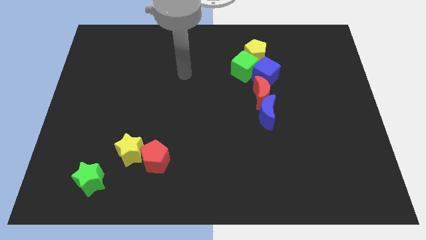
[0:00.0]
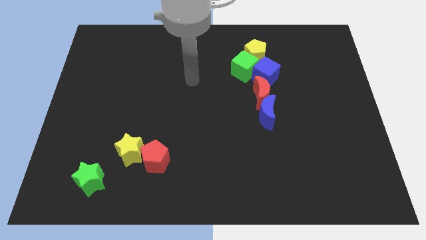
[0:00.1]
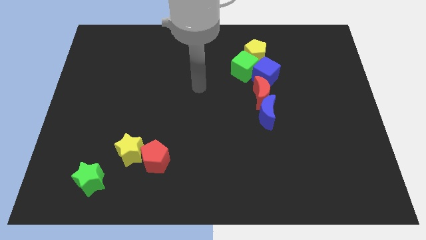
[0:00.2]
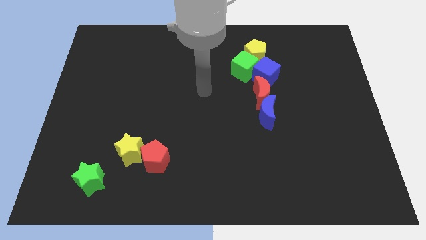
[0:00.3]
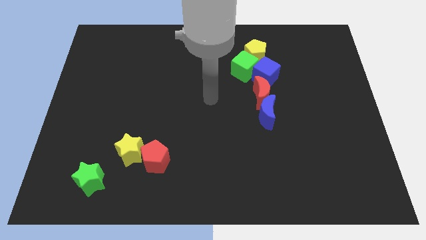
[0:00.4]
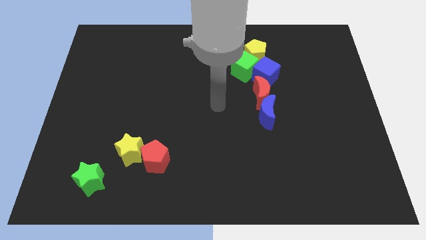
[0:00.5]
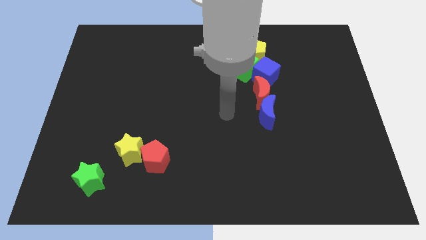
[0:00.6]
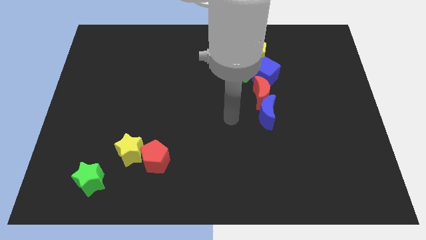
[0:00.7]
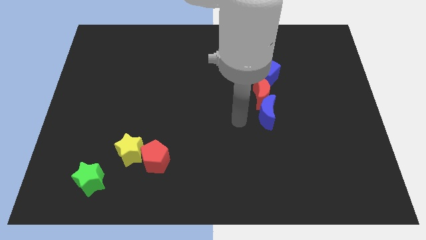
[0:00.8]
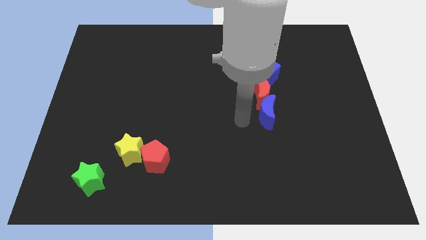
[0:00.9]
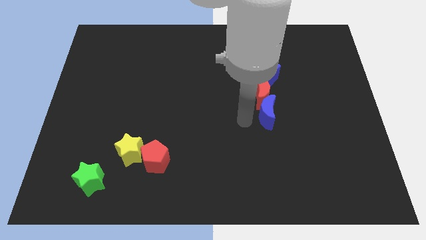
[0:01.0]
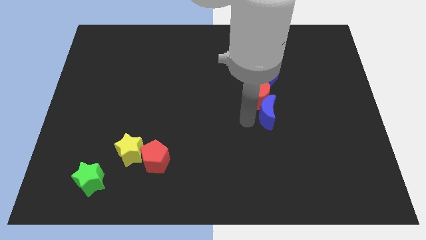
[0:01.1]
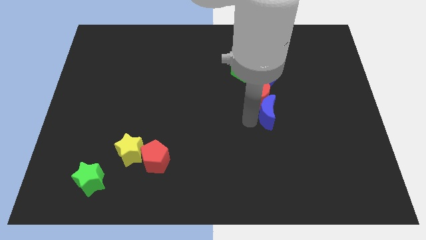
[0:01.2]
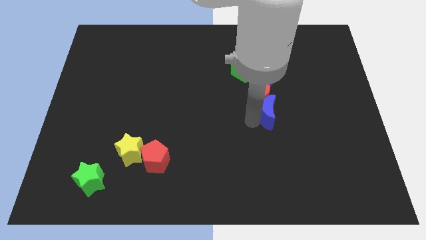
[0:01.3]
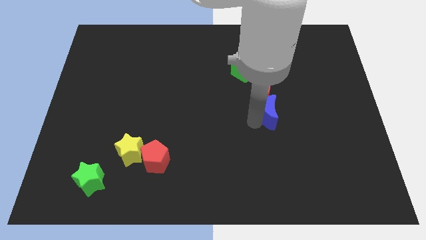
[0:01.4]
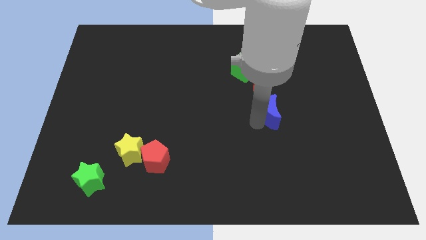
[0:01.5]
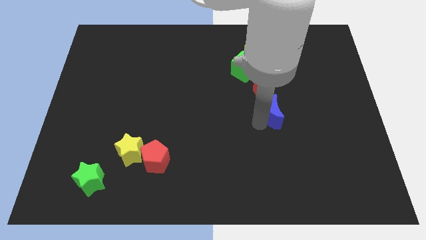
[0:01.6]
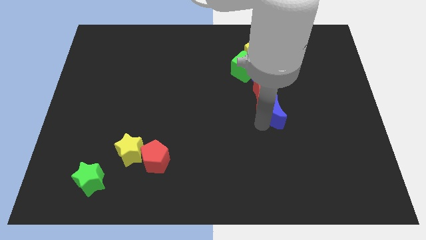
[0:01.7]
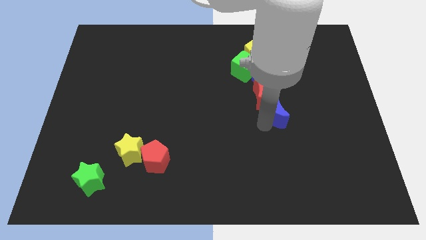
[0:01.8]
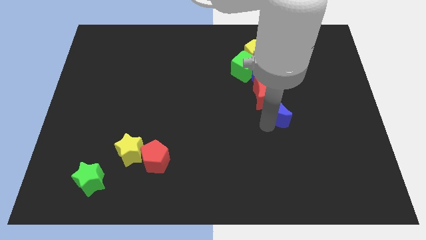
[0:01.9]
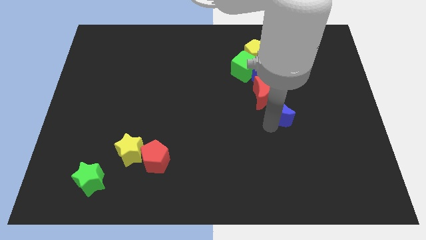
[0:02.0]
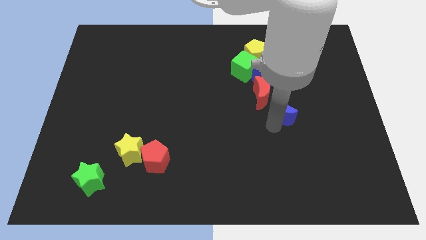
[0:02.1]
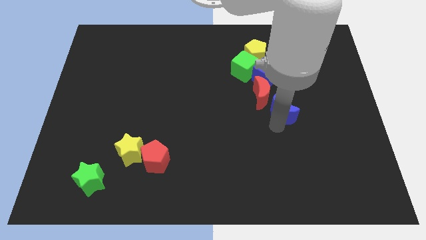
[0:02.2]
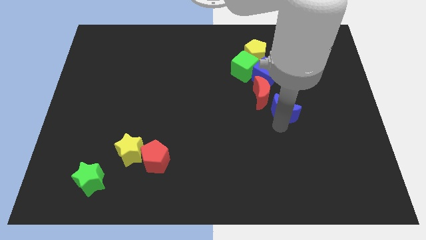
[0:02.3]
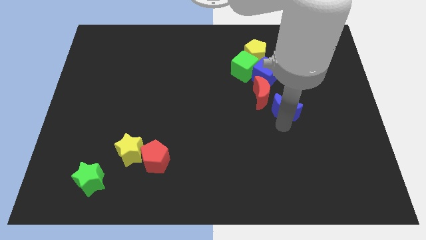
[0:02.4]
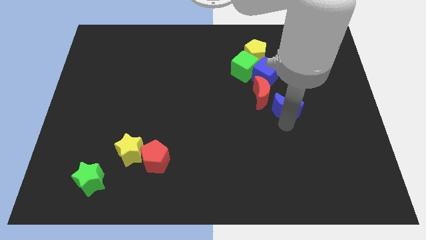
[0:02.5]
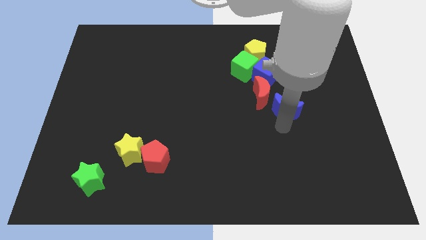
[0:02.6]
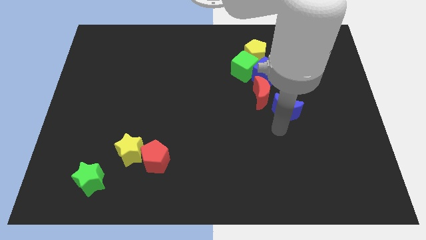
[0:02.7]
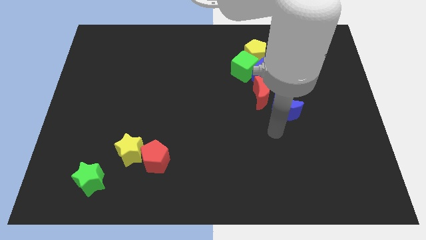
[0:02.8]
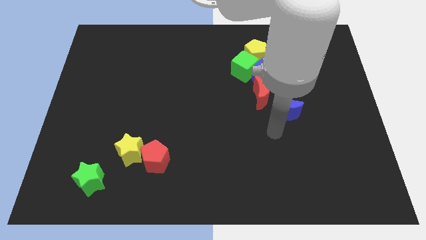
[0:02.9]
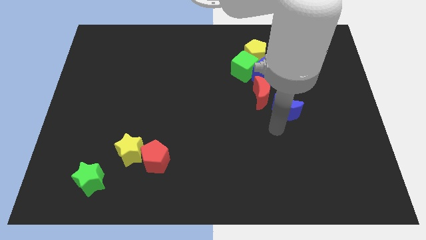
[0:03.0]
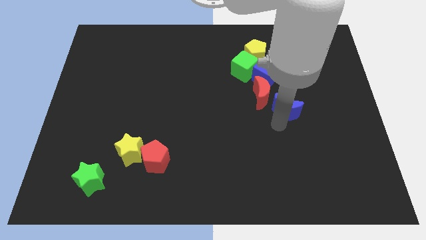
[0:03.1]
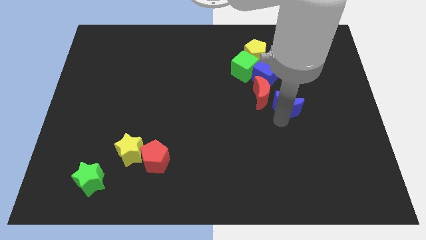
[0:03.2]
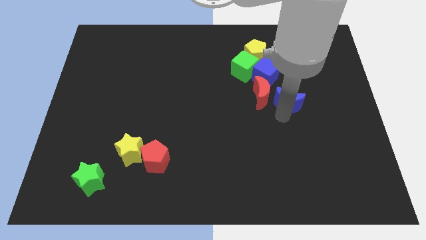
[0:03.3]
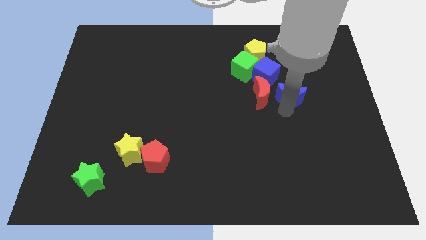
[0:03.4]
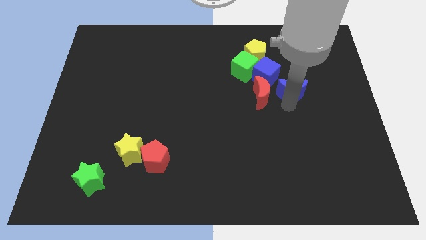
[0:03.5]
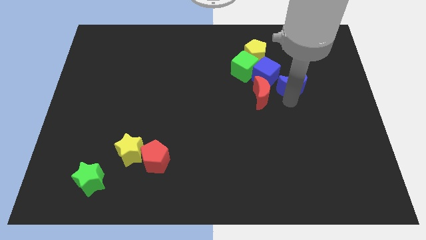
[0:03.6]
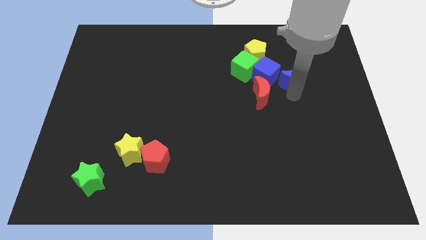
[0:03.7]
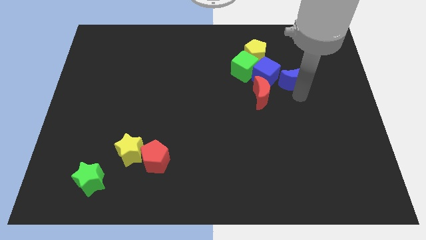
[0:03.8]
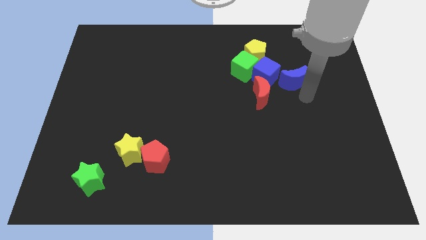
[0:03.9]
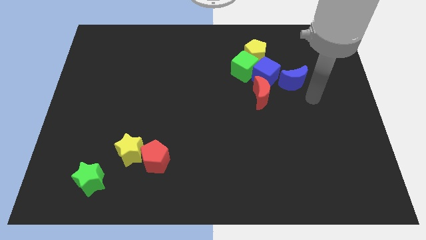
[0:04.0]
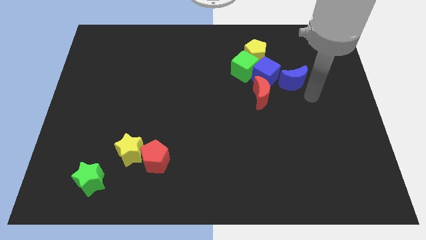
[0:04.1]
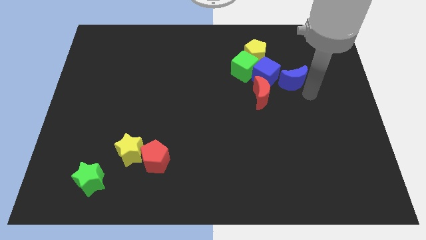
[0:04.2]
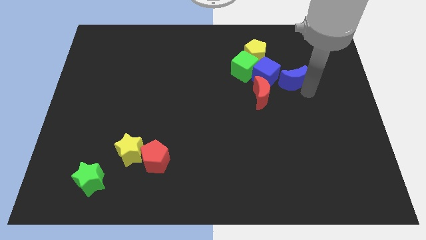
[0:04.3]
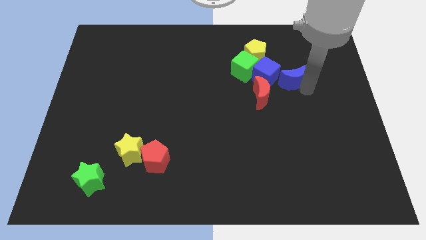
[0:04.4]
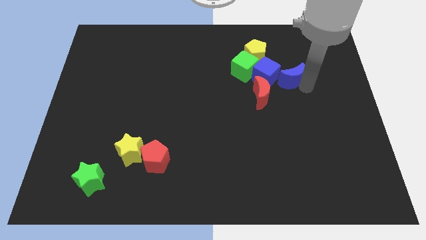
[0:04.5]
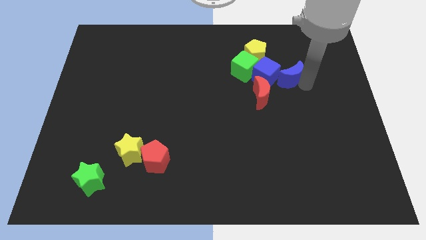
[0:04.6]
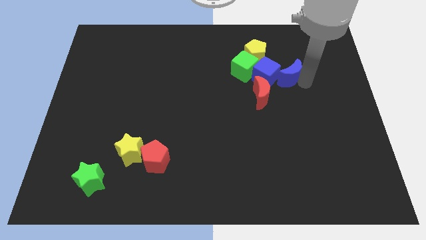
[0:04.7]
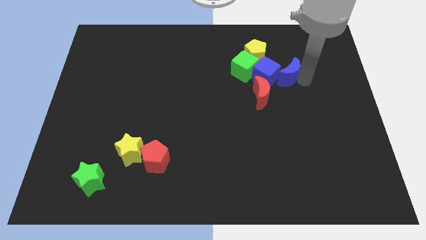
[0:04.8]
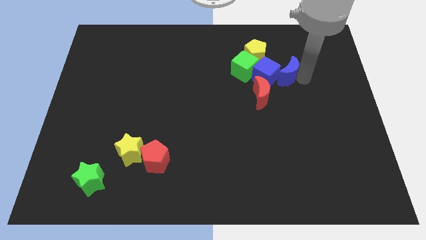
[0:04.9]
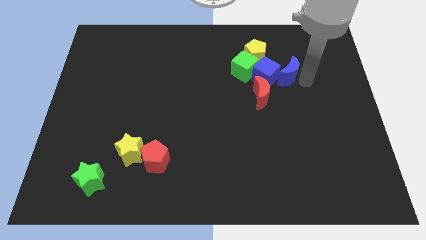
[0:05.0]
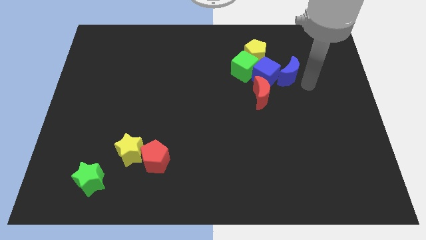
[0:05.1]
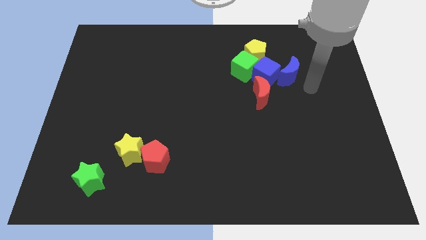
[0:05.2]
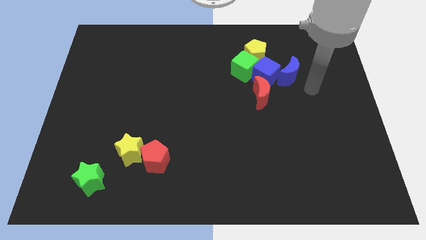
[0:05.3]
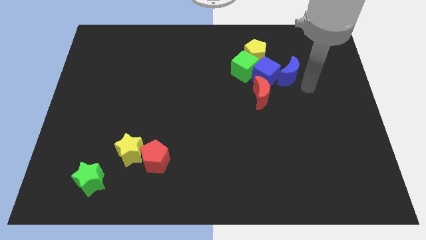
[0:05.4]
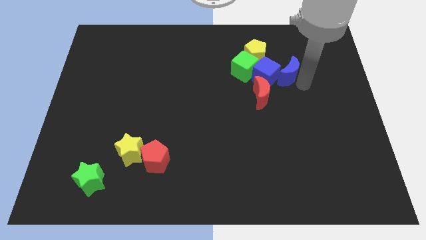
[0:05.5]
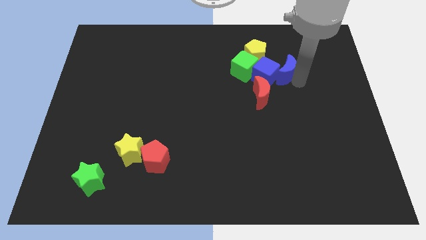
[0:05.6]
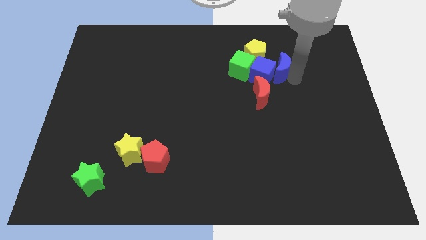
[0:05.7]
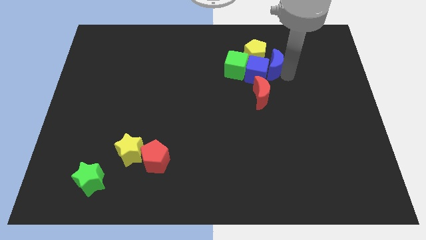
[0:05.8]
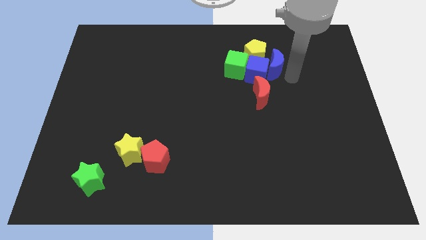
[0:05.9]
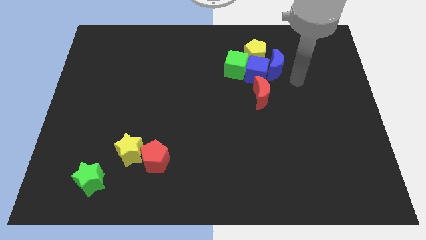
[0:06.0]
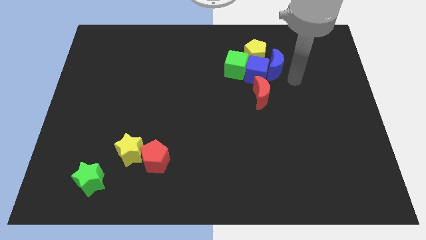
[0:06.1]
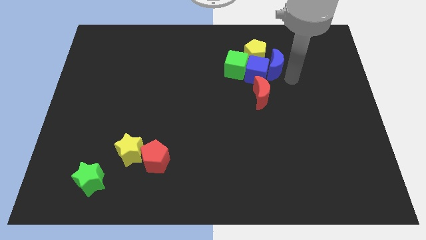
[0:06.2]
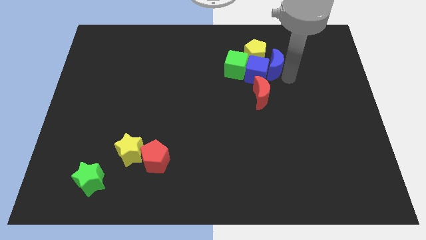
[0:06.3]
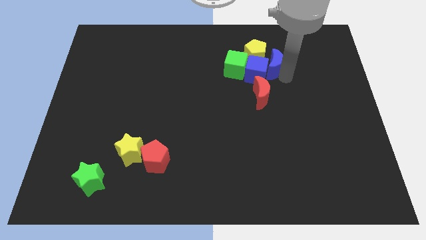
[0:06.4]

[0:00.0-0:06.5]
put the blue moon to the yellow pentagon

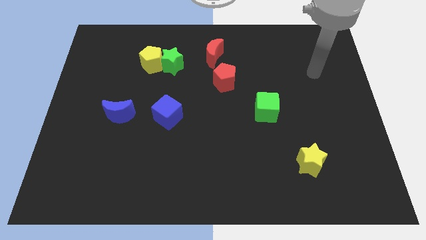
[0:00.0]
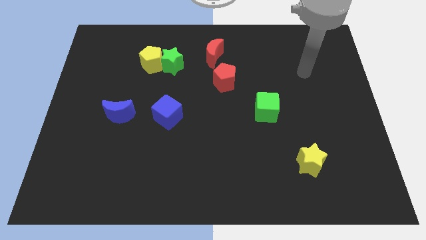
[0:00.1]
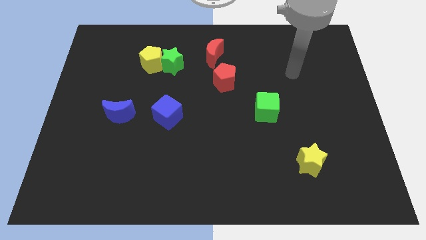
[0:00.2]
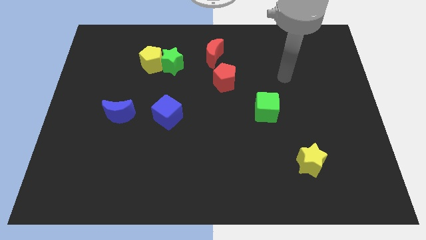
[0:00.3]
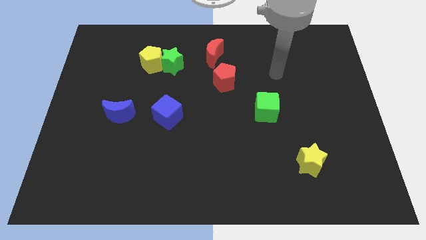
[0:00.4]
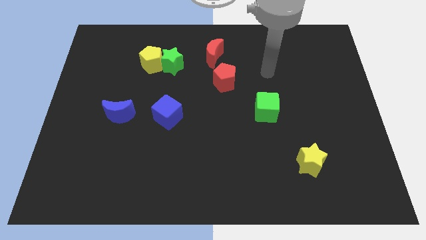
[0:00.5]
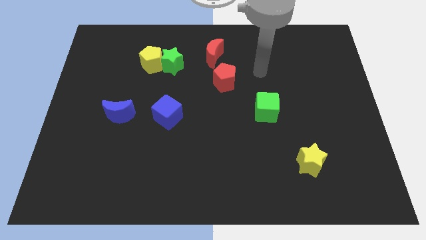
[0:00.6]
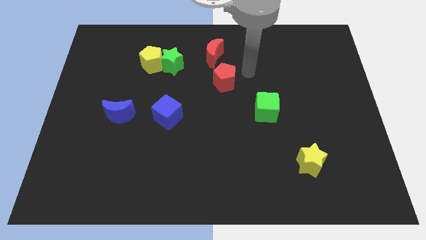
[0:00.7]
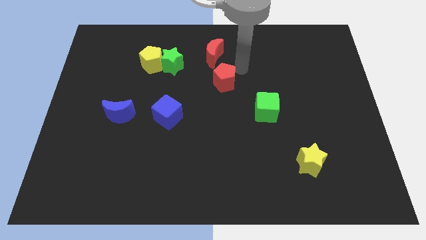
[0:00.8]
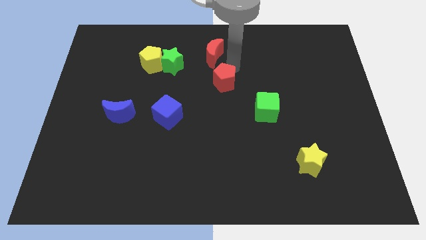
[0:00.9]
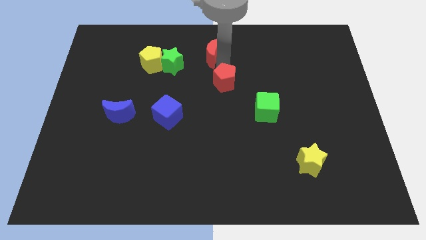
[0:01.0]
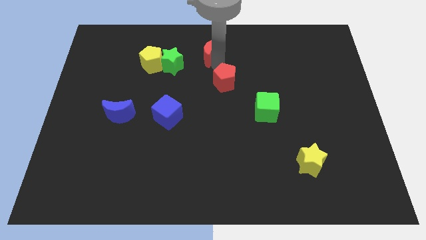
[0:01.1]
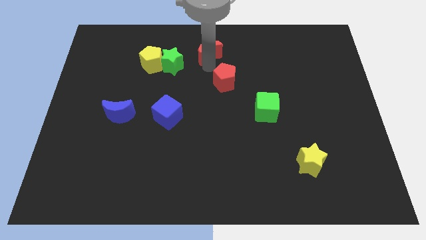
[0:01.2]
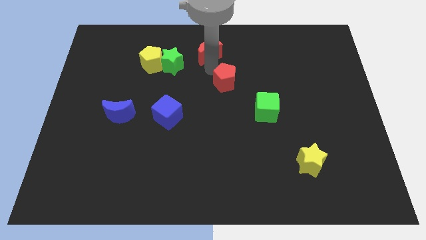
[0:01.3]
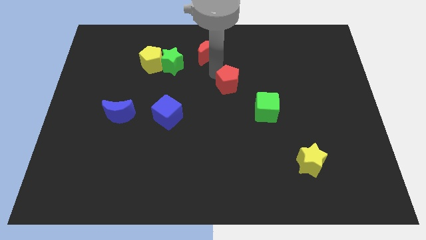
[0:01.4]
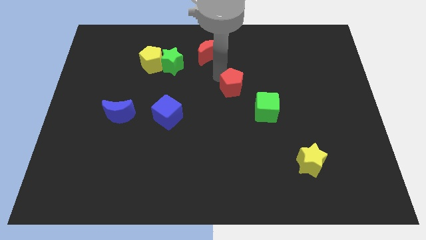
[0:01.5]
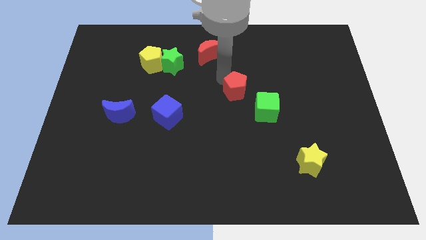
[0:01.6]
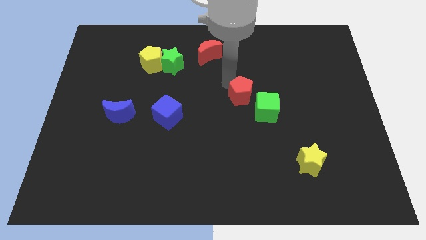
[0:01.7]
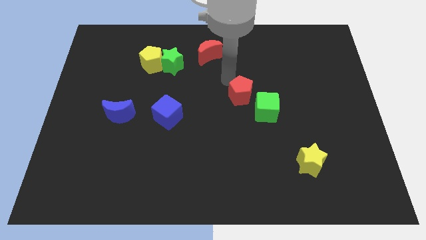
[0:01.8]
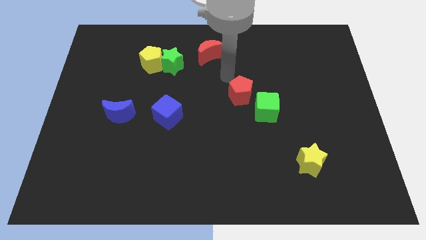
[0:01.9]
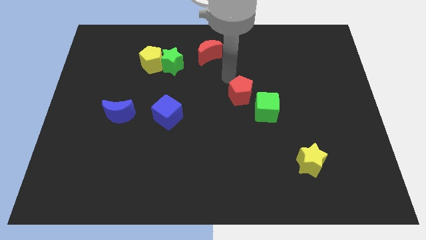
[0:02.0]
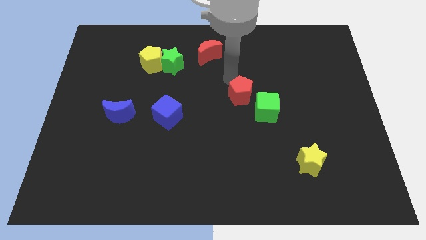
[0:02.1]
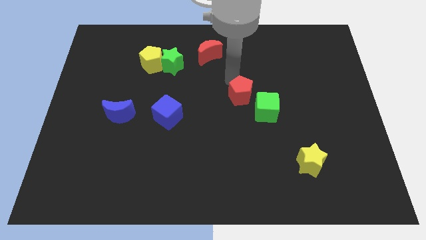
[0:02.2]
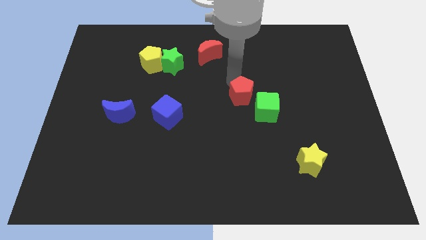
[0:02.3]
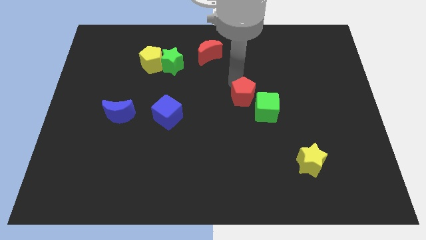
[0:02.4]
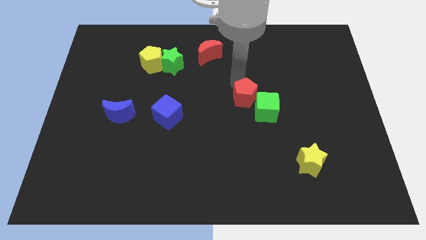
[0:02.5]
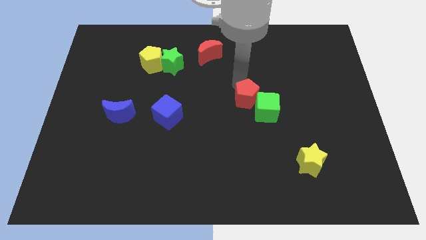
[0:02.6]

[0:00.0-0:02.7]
push the red pentagon towards the green cube
